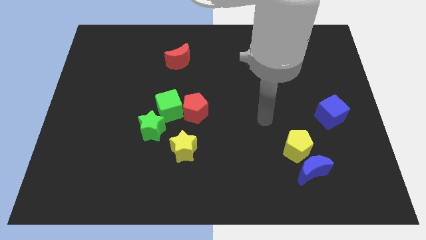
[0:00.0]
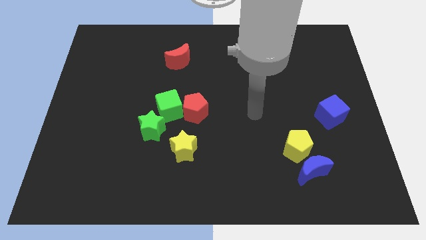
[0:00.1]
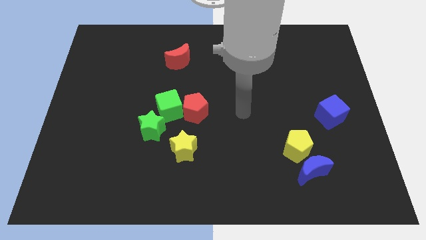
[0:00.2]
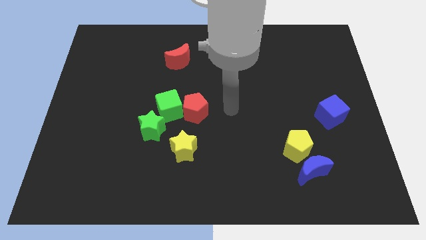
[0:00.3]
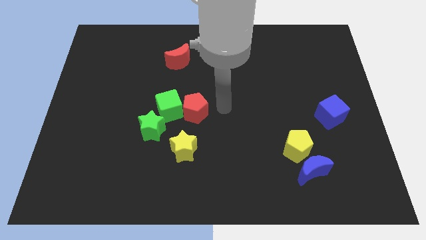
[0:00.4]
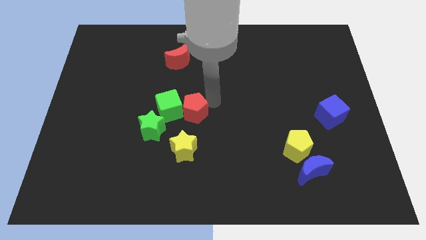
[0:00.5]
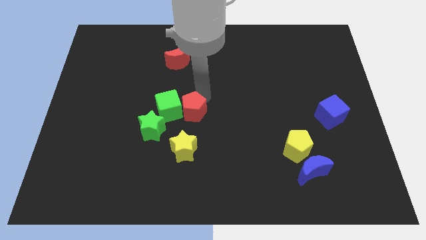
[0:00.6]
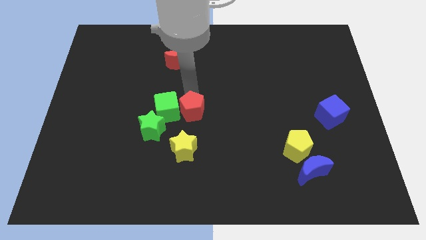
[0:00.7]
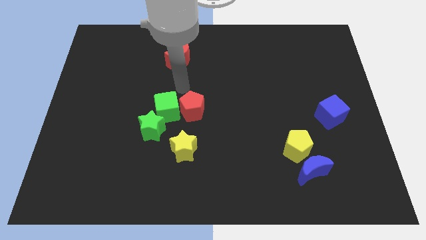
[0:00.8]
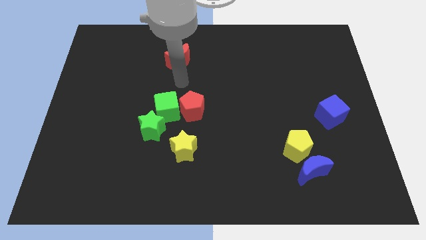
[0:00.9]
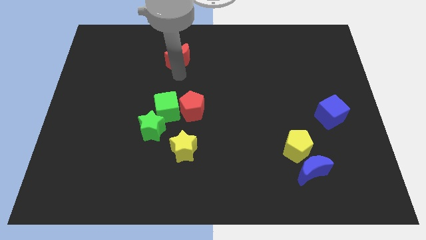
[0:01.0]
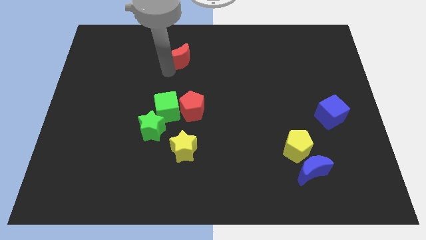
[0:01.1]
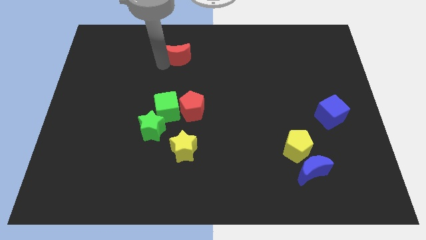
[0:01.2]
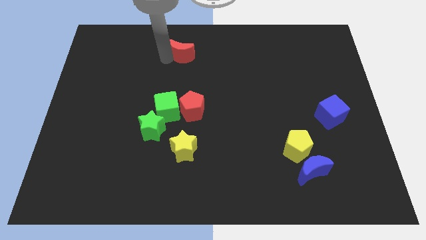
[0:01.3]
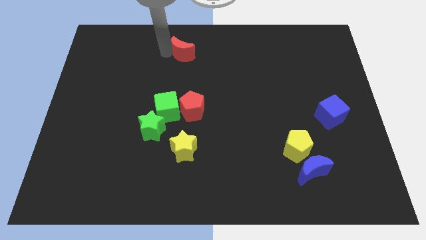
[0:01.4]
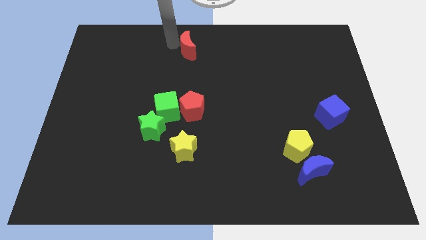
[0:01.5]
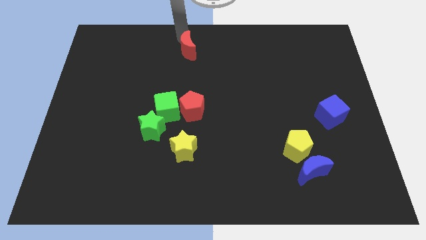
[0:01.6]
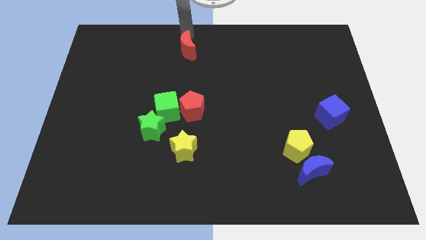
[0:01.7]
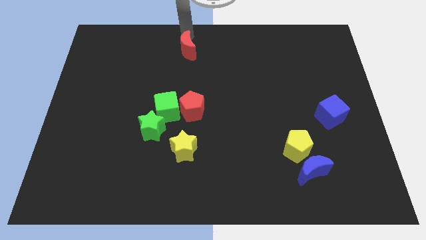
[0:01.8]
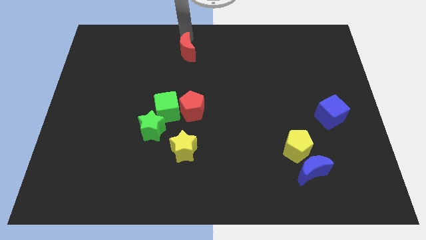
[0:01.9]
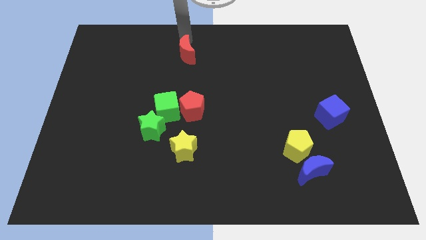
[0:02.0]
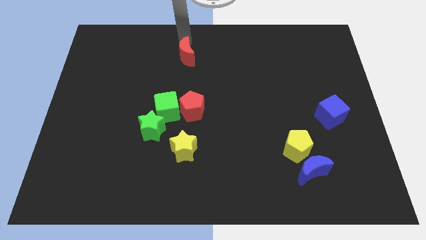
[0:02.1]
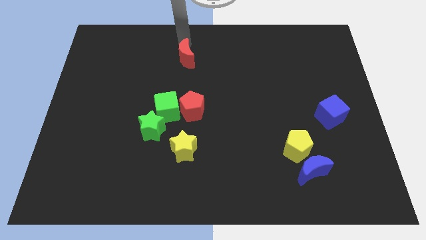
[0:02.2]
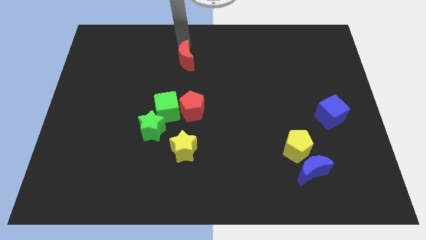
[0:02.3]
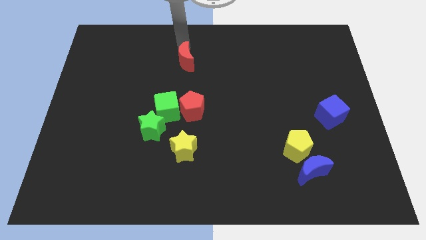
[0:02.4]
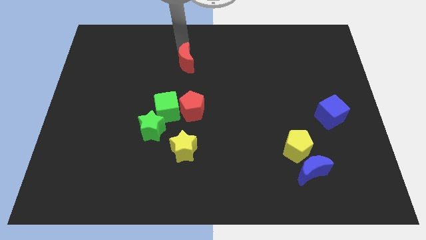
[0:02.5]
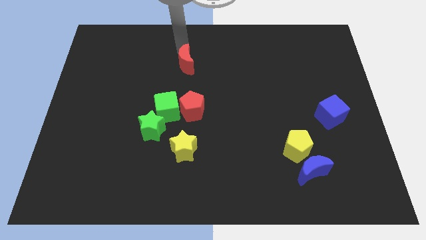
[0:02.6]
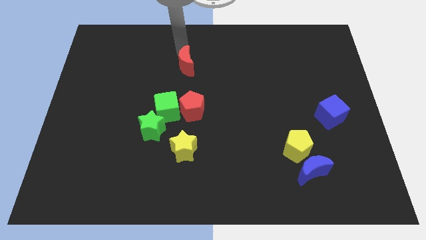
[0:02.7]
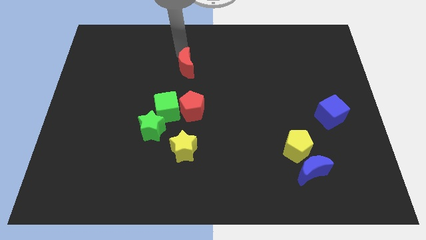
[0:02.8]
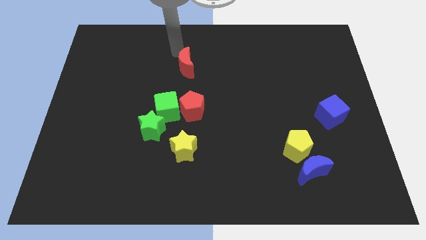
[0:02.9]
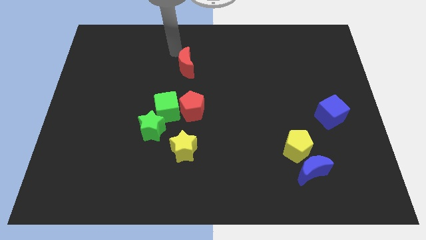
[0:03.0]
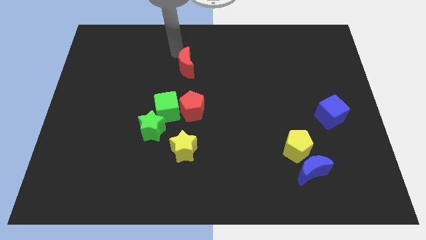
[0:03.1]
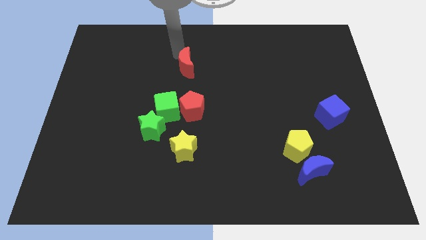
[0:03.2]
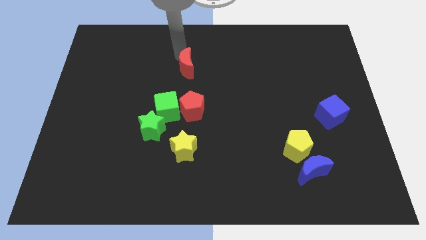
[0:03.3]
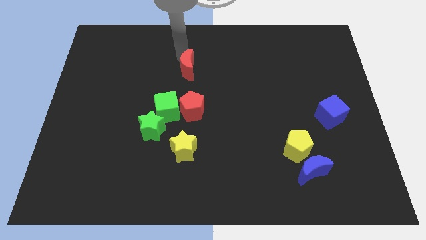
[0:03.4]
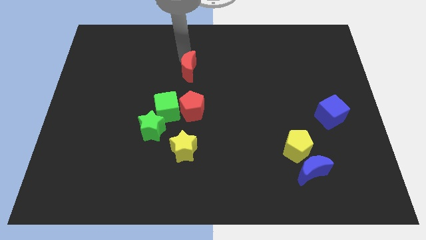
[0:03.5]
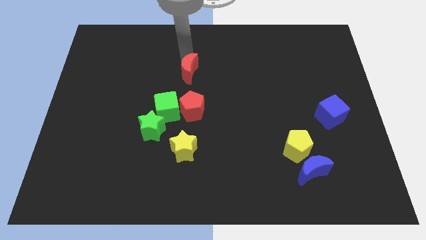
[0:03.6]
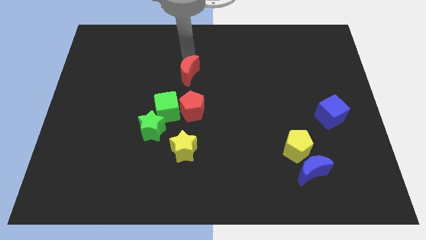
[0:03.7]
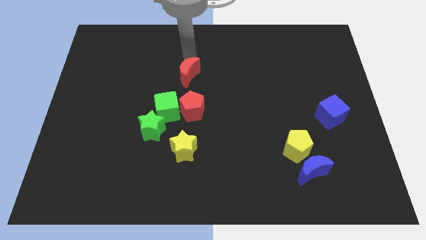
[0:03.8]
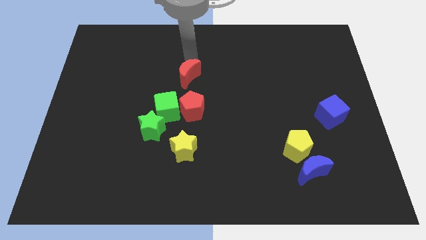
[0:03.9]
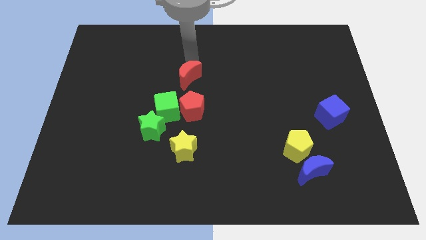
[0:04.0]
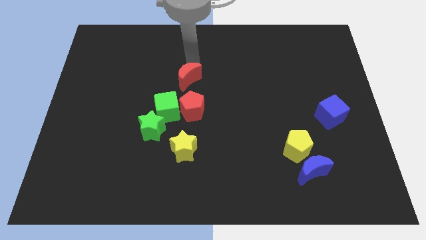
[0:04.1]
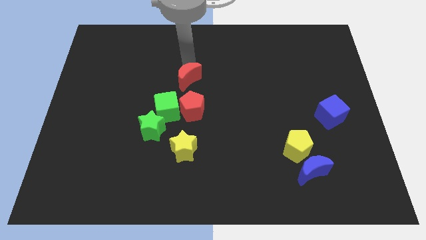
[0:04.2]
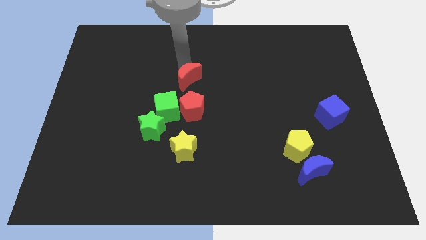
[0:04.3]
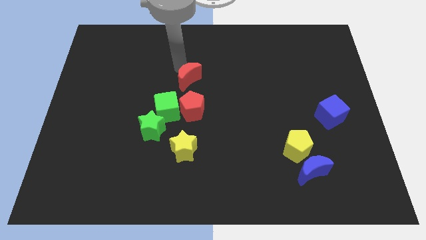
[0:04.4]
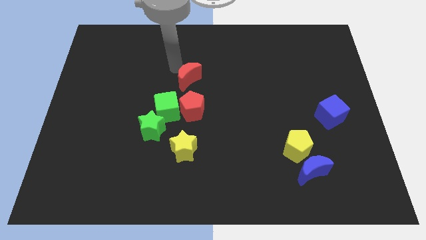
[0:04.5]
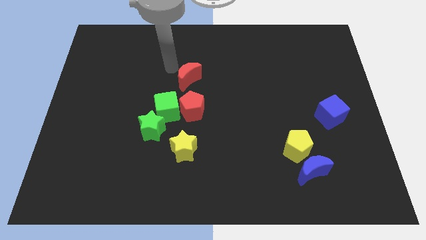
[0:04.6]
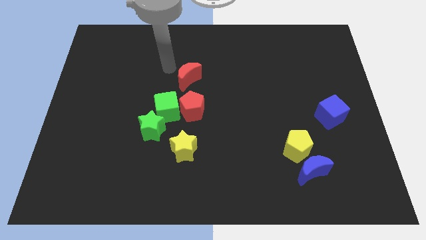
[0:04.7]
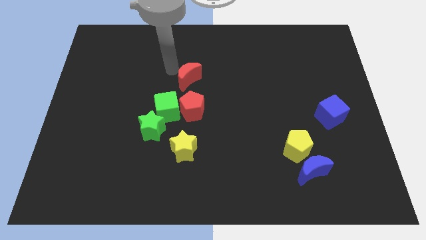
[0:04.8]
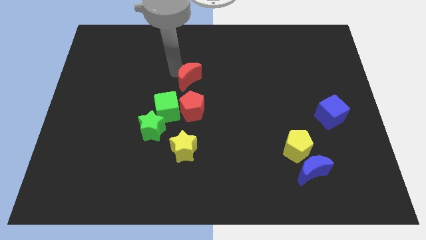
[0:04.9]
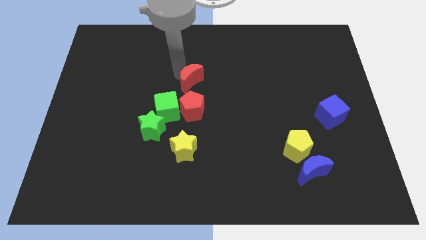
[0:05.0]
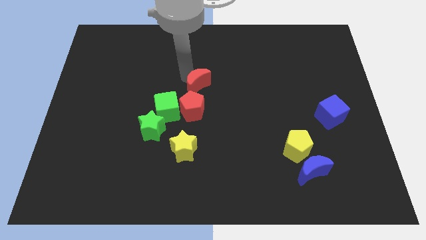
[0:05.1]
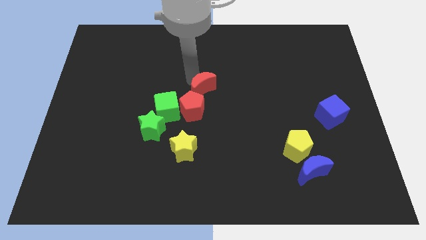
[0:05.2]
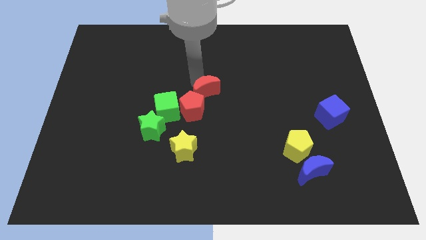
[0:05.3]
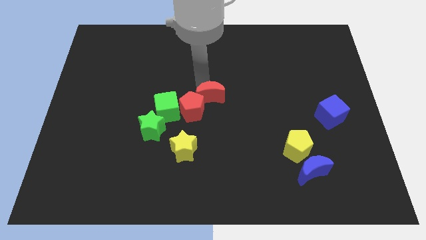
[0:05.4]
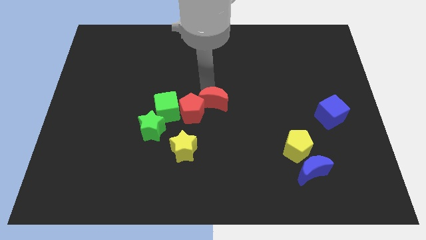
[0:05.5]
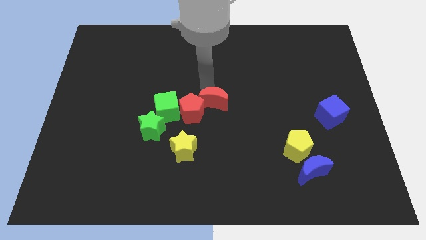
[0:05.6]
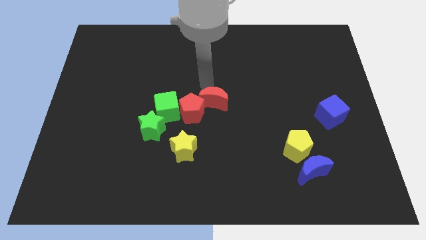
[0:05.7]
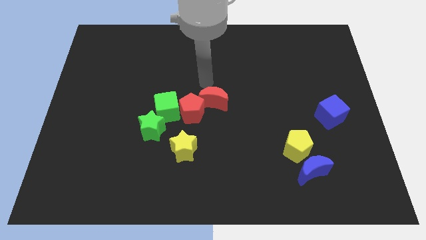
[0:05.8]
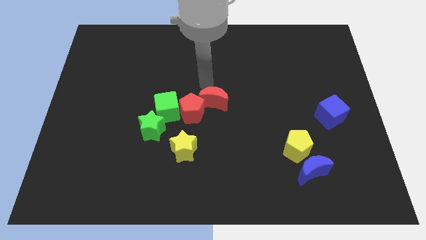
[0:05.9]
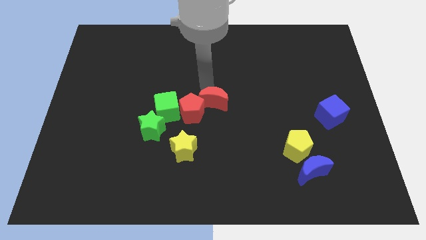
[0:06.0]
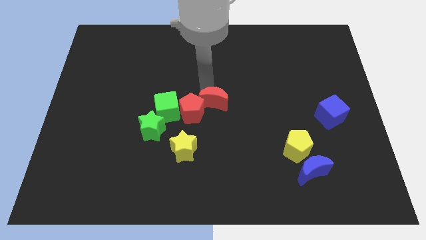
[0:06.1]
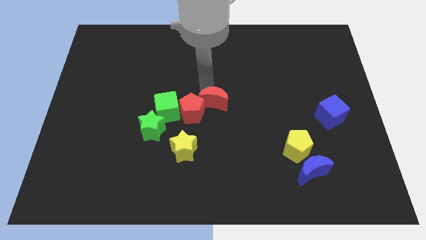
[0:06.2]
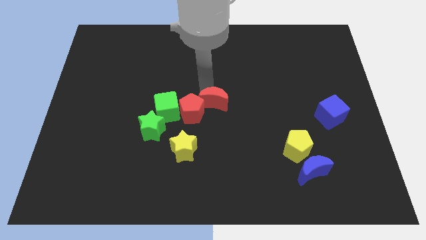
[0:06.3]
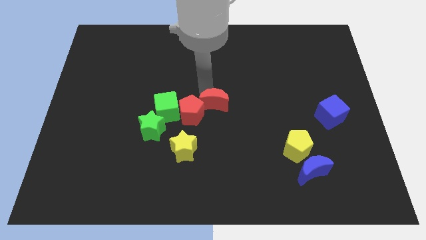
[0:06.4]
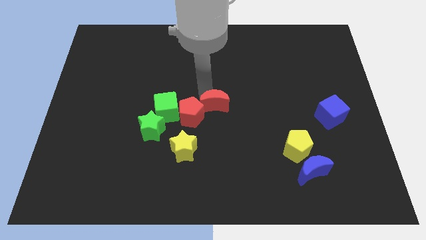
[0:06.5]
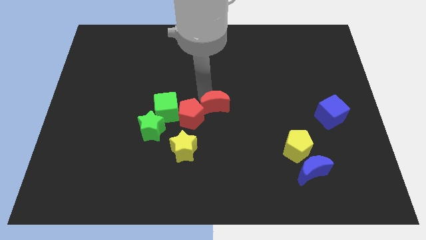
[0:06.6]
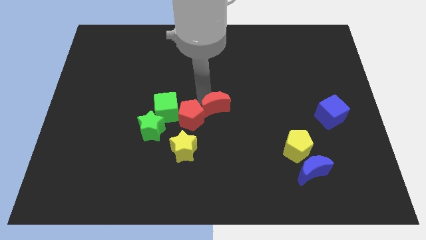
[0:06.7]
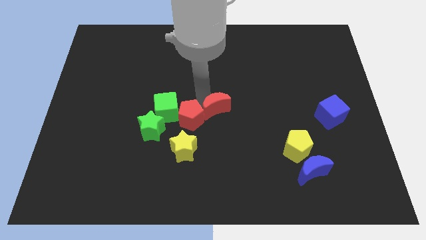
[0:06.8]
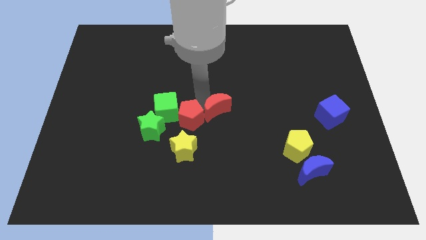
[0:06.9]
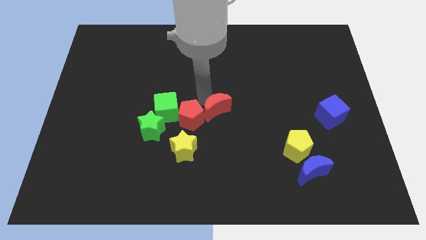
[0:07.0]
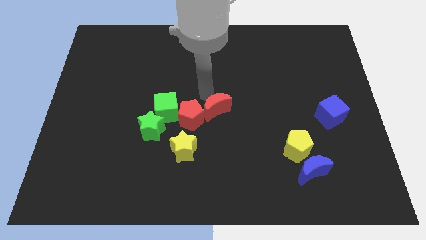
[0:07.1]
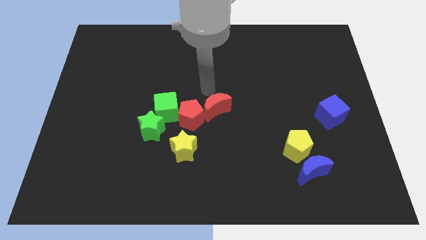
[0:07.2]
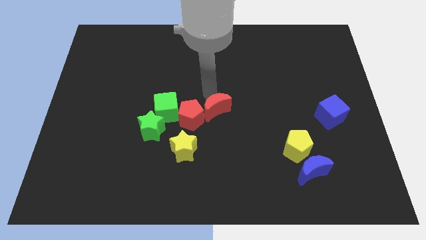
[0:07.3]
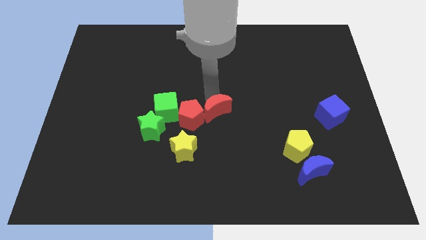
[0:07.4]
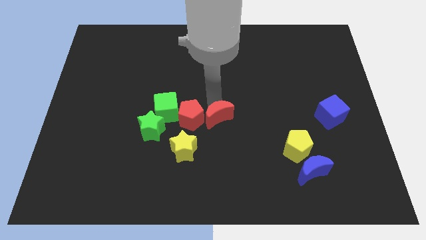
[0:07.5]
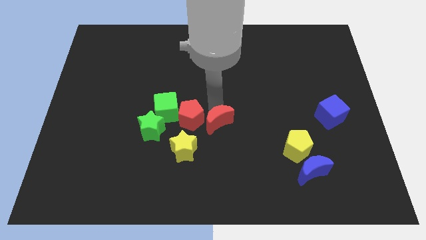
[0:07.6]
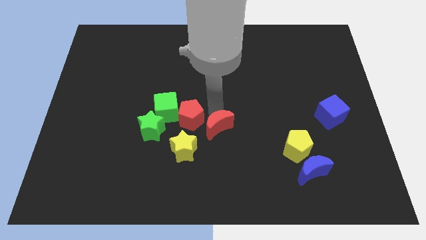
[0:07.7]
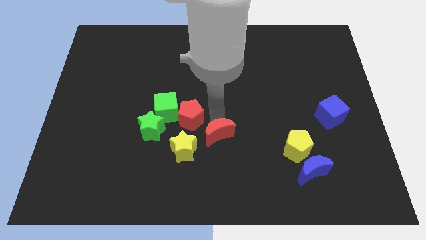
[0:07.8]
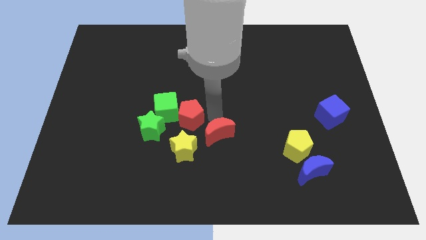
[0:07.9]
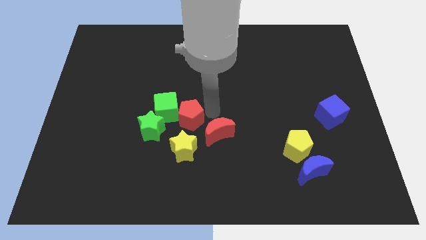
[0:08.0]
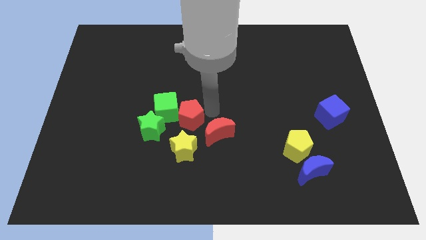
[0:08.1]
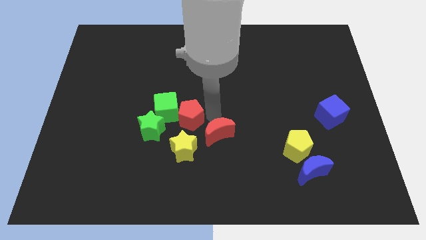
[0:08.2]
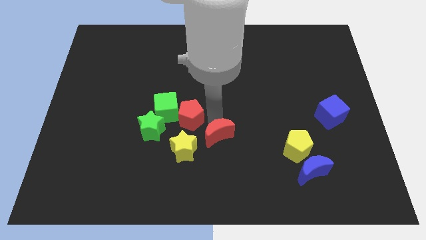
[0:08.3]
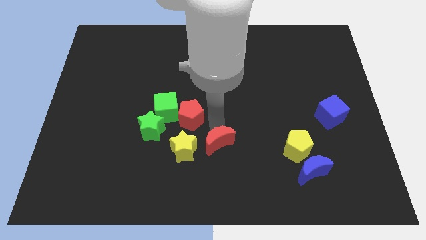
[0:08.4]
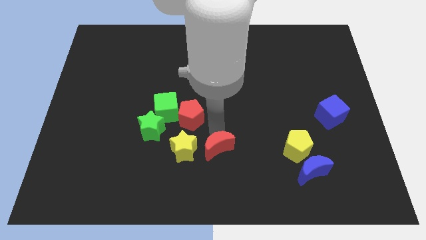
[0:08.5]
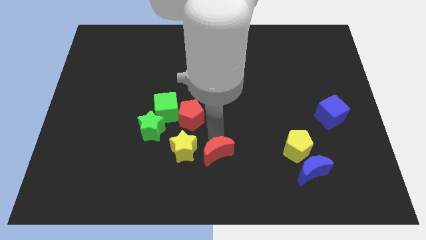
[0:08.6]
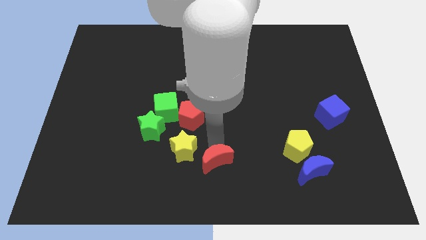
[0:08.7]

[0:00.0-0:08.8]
move the red moon to the bottom
